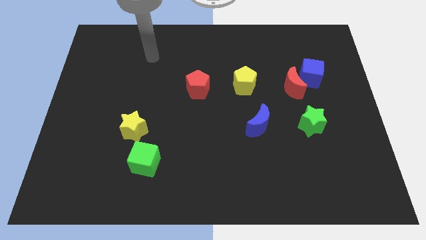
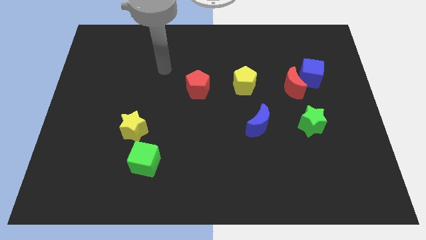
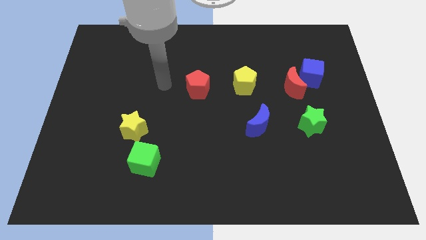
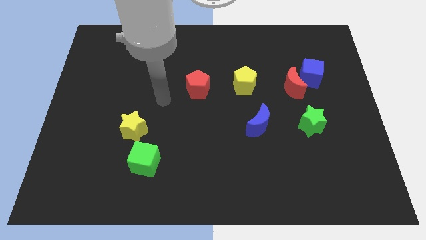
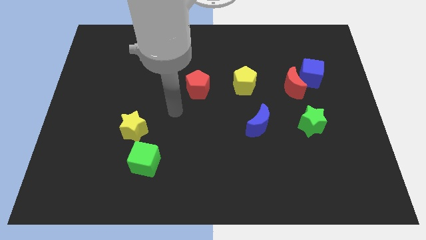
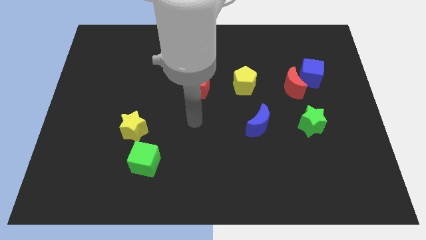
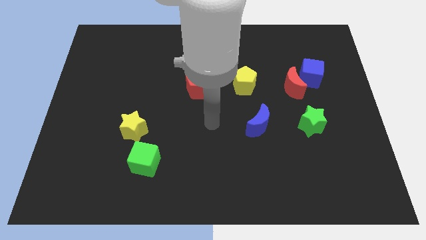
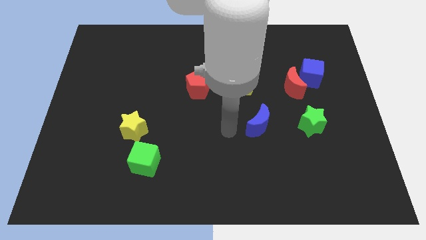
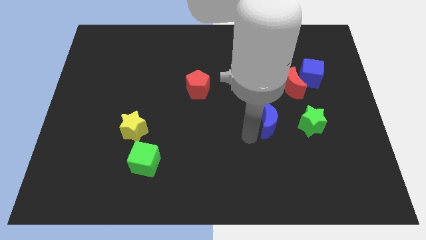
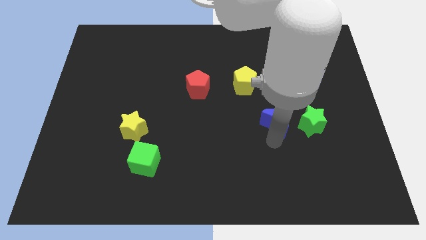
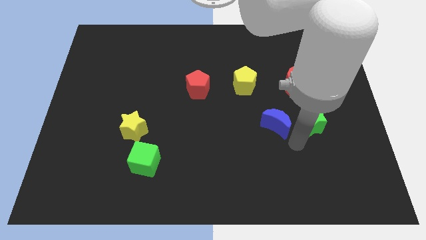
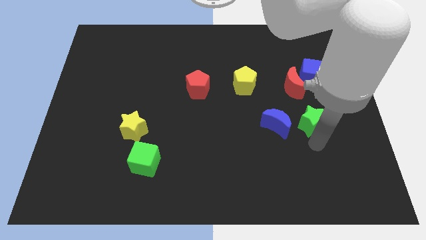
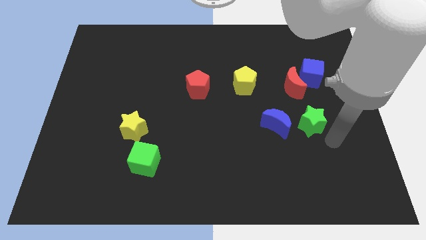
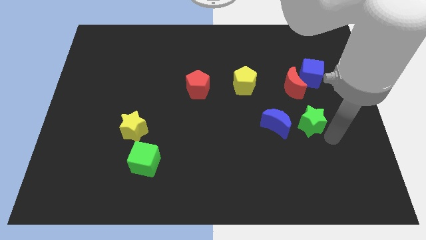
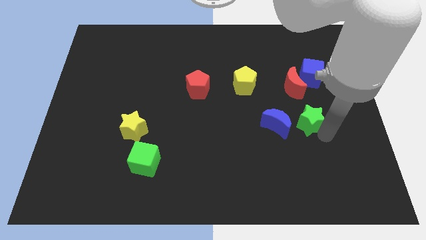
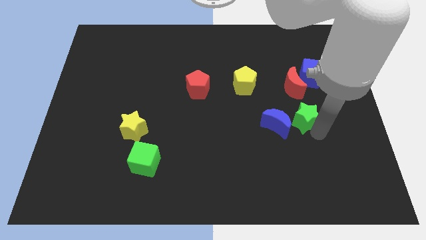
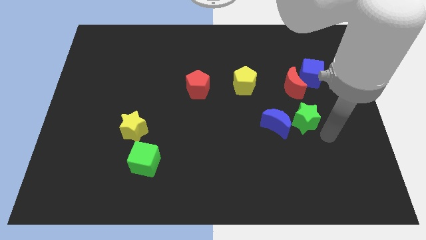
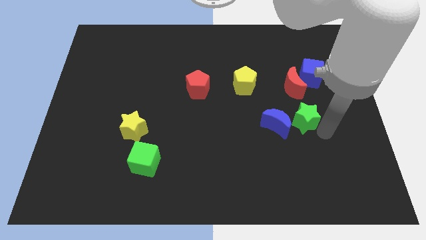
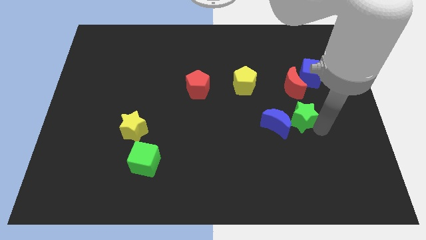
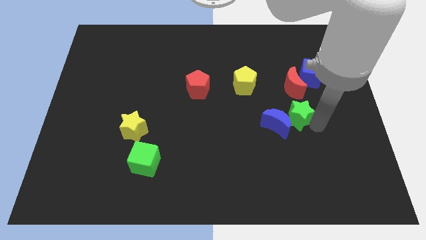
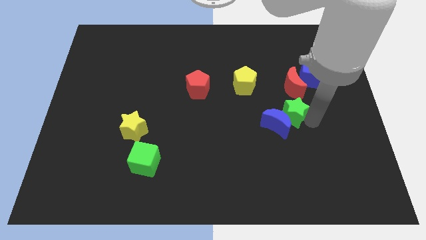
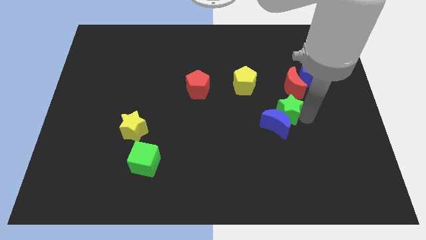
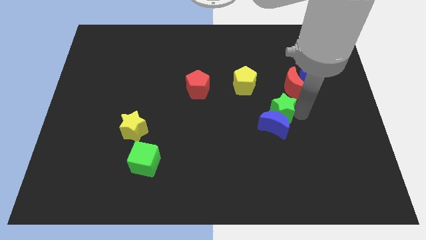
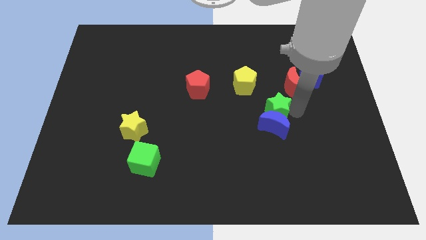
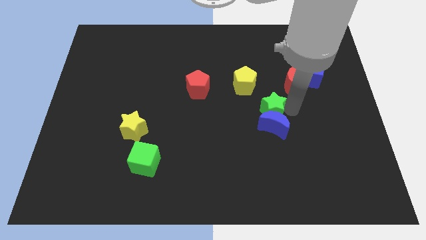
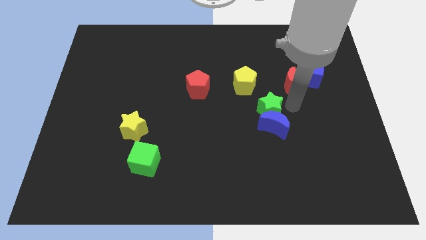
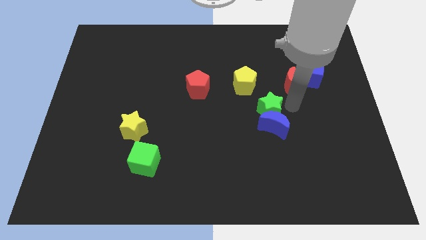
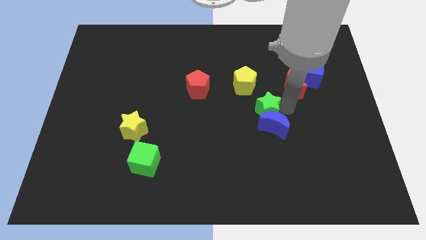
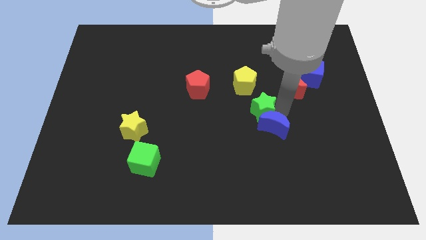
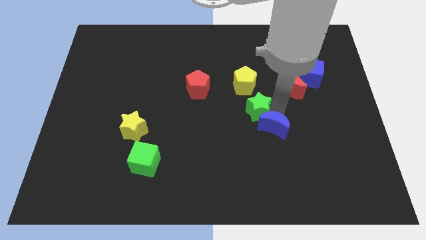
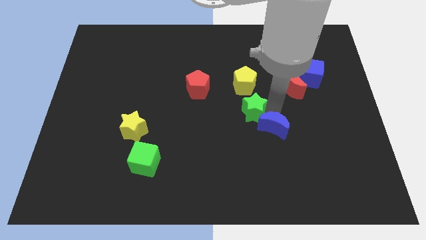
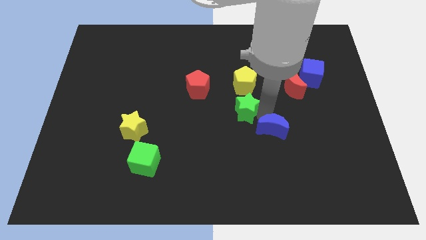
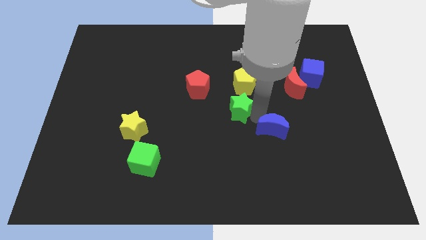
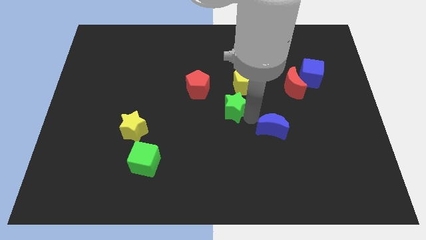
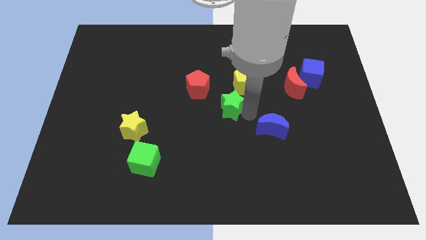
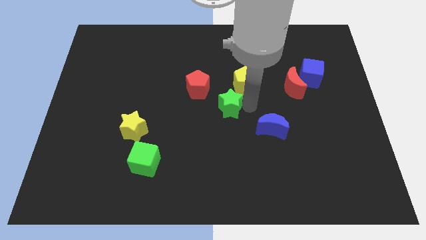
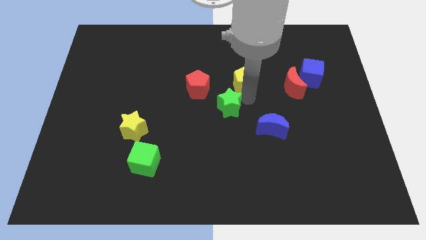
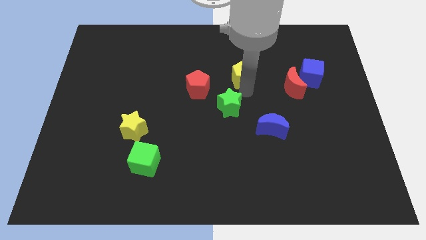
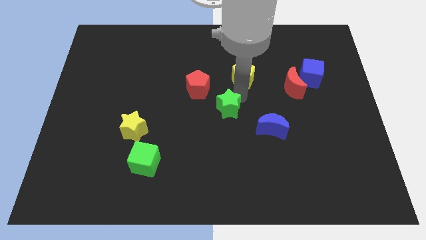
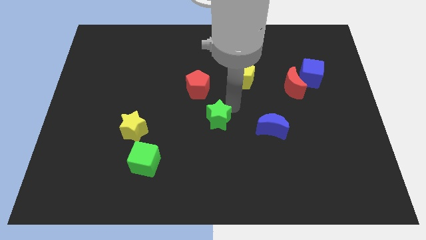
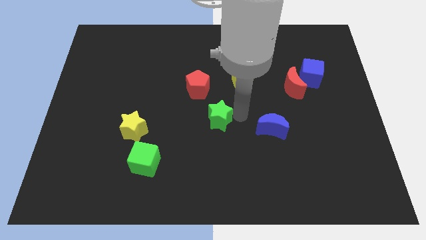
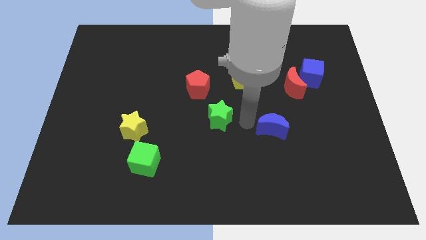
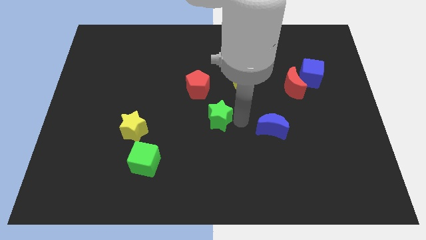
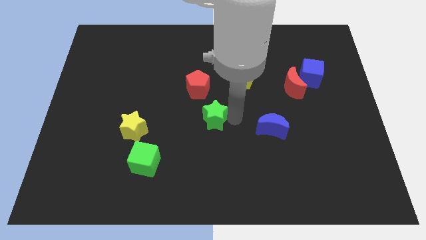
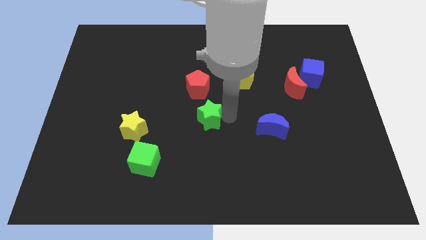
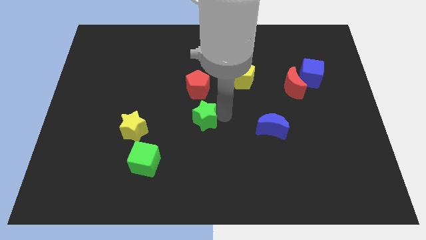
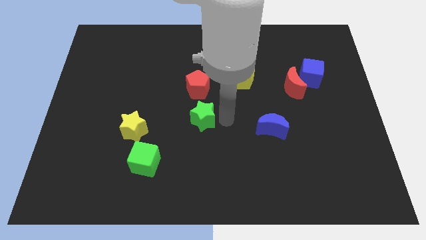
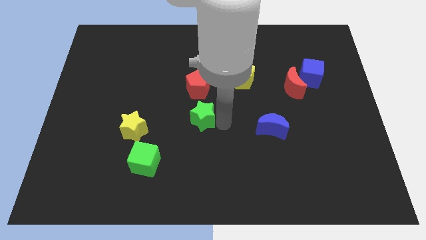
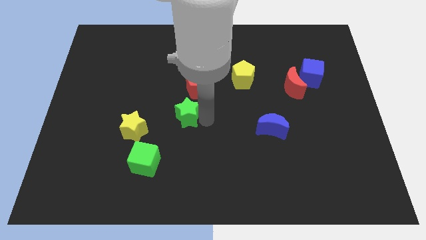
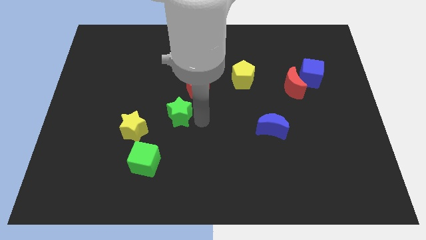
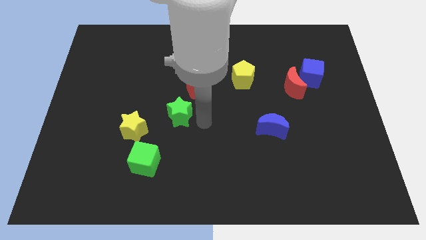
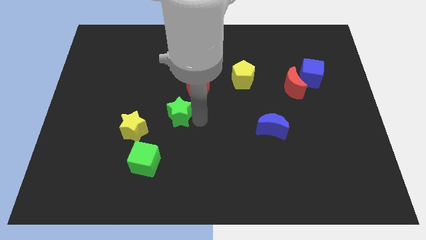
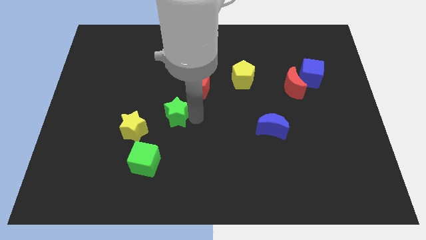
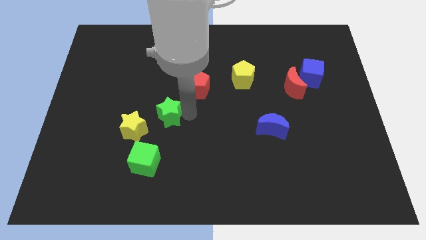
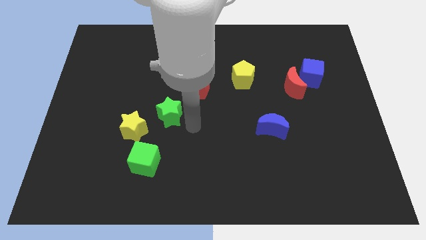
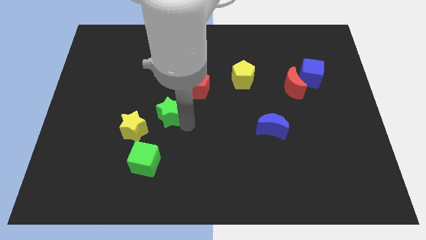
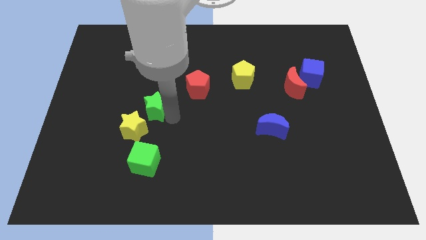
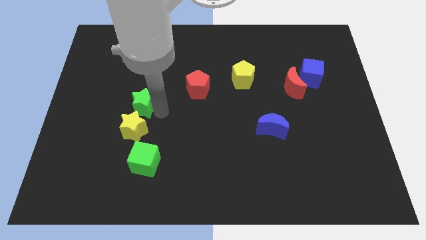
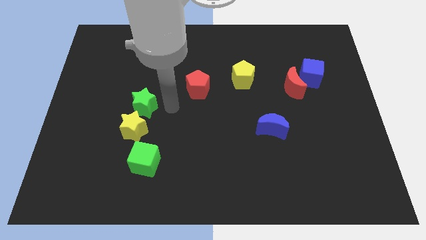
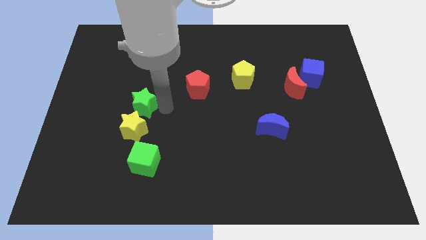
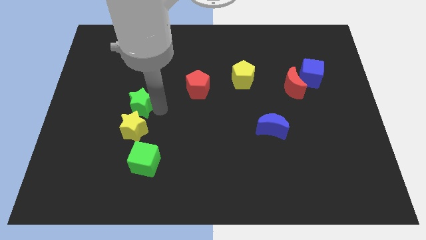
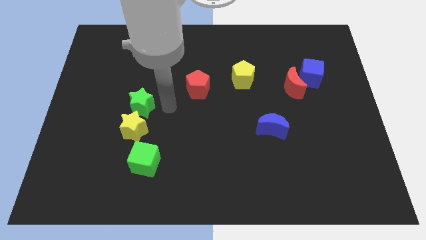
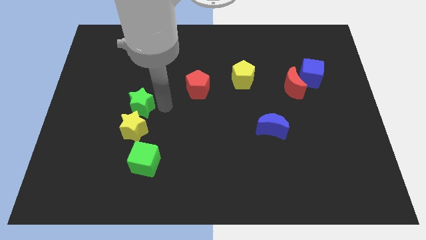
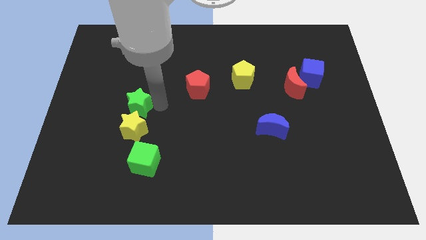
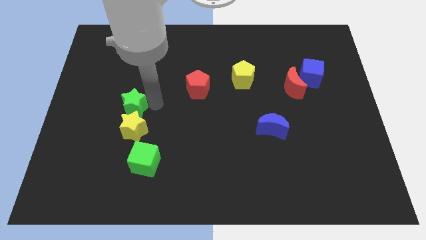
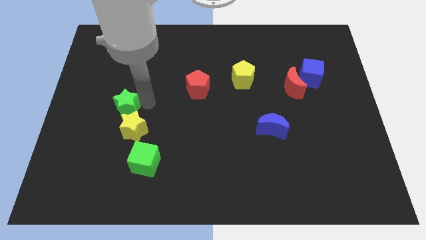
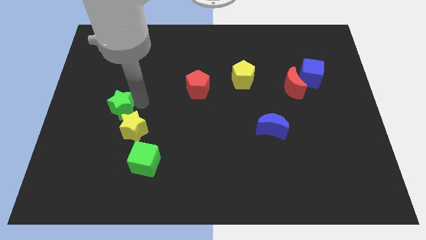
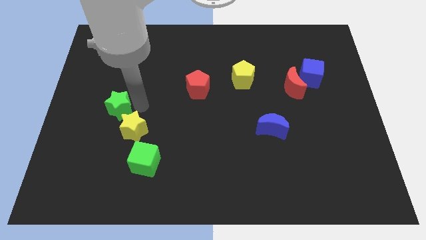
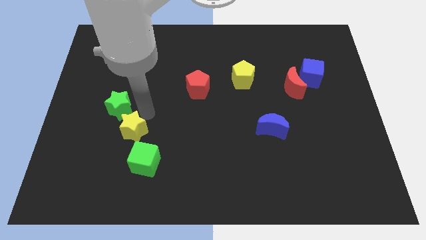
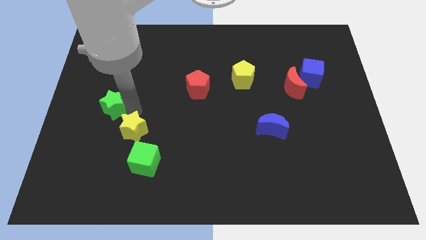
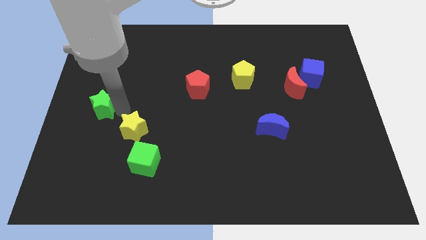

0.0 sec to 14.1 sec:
put the green star to the center left
